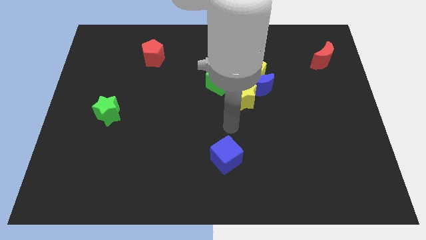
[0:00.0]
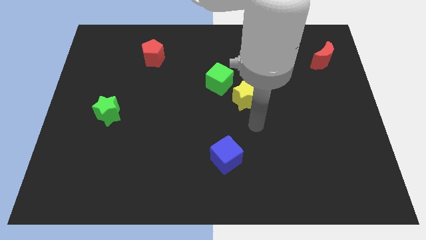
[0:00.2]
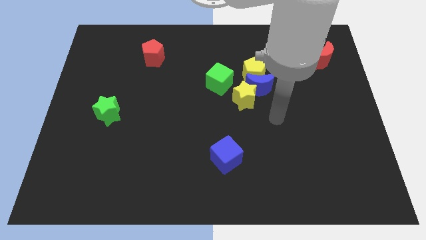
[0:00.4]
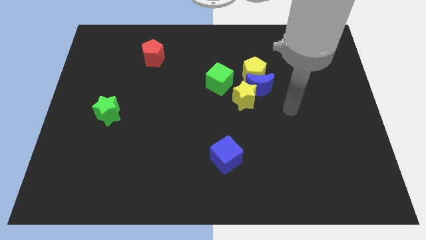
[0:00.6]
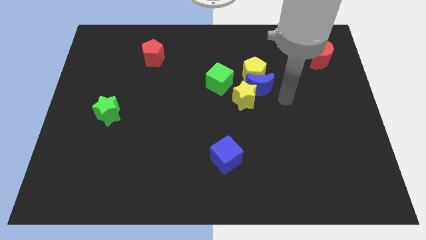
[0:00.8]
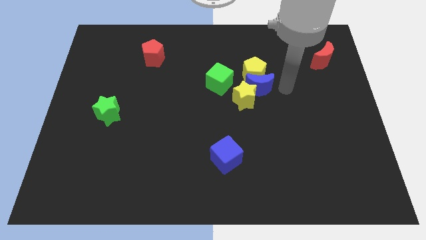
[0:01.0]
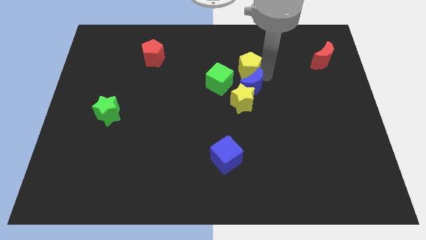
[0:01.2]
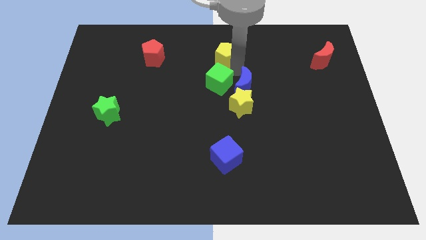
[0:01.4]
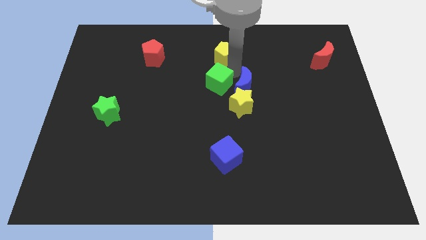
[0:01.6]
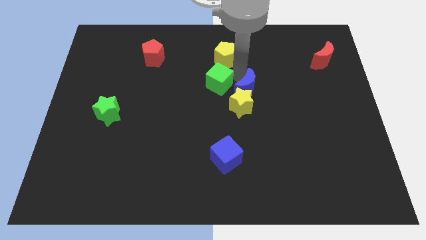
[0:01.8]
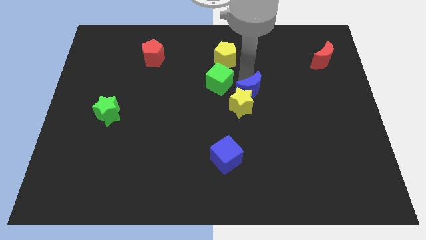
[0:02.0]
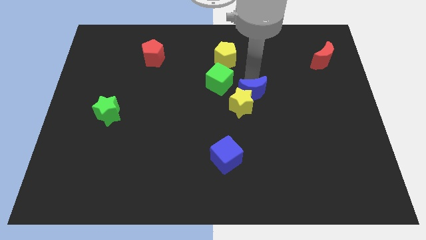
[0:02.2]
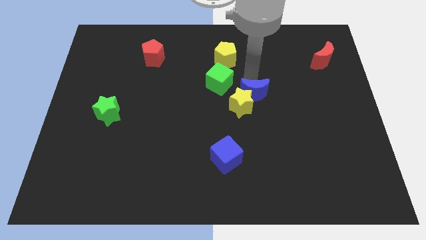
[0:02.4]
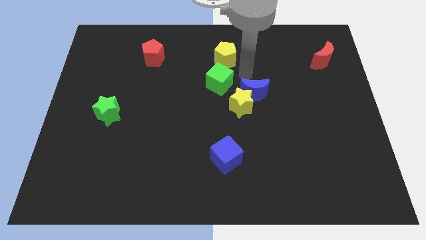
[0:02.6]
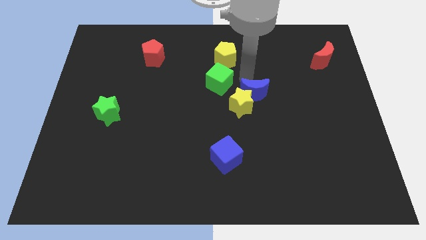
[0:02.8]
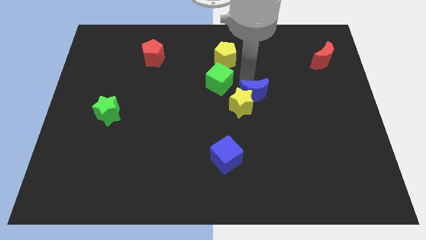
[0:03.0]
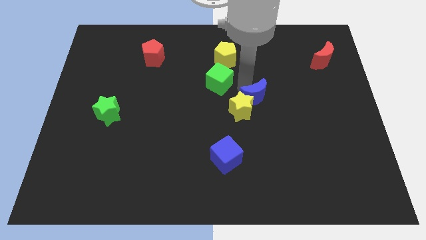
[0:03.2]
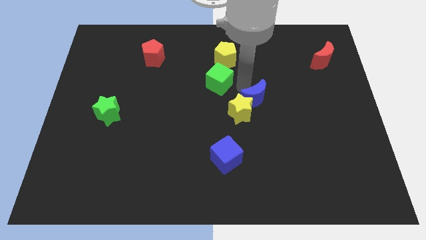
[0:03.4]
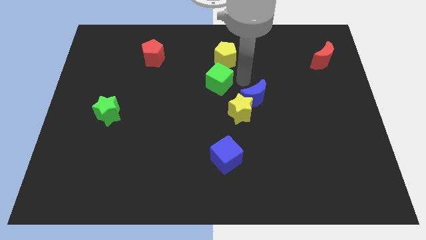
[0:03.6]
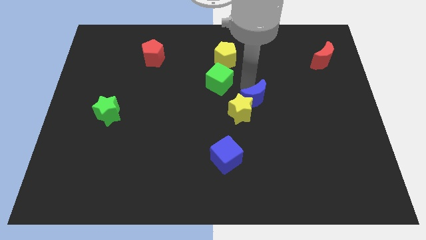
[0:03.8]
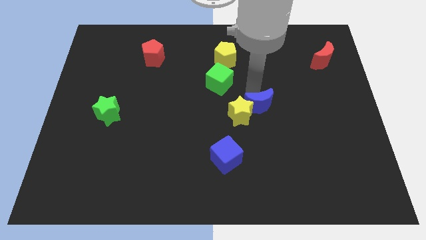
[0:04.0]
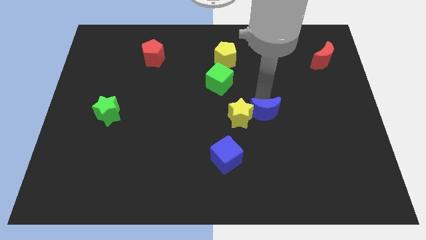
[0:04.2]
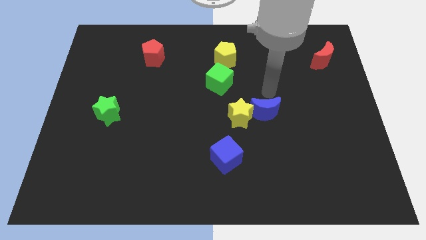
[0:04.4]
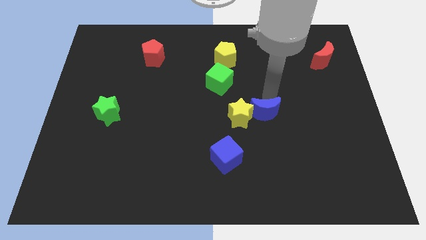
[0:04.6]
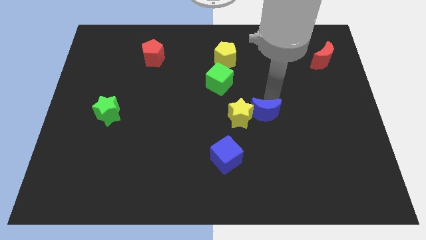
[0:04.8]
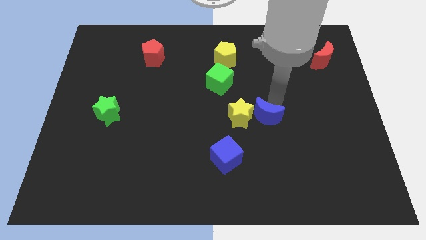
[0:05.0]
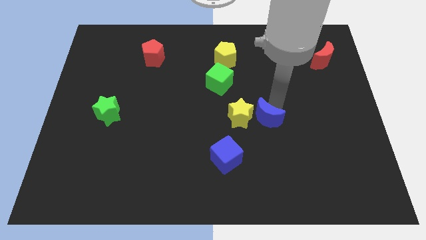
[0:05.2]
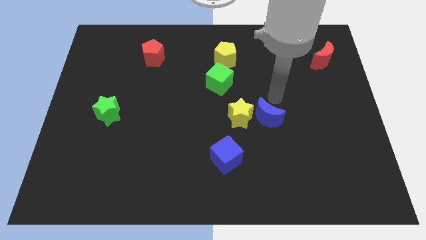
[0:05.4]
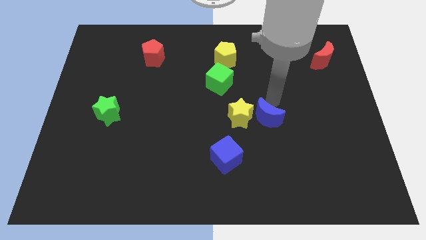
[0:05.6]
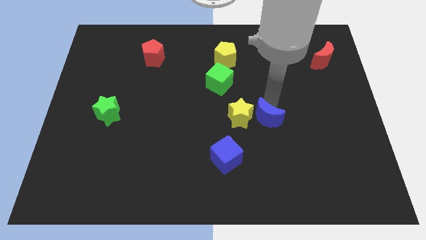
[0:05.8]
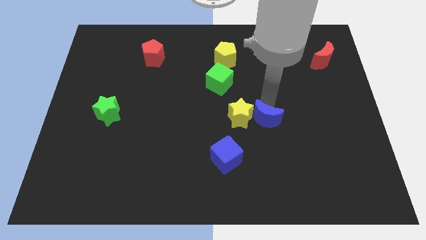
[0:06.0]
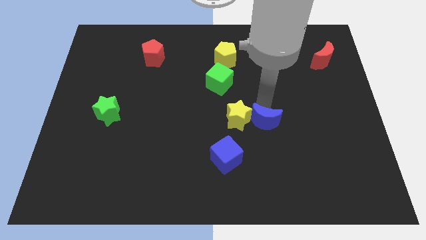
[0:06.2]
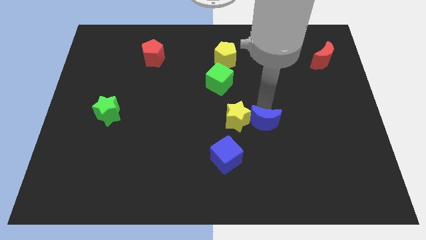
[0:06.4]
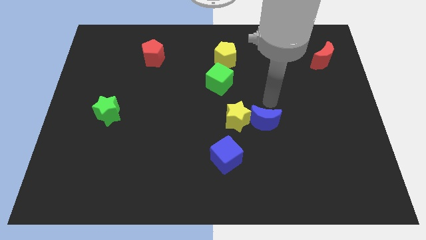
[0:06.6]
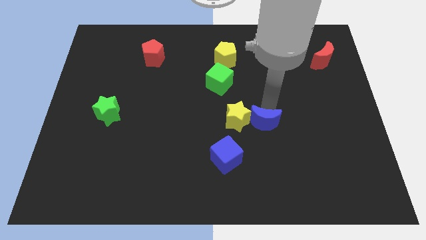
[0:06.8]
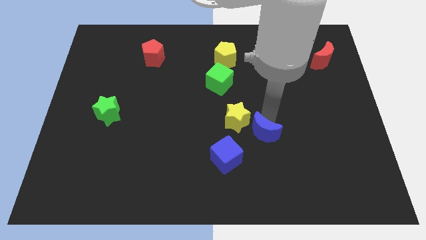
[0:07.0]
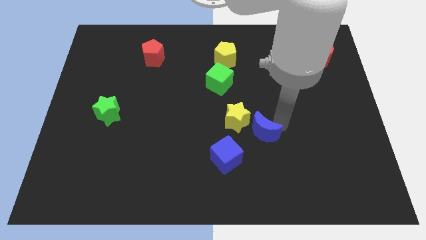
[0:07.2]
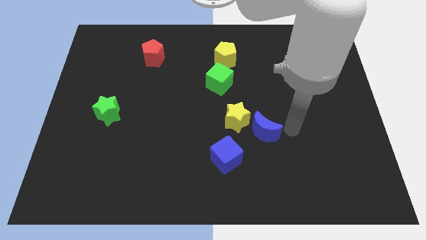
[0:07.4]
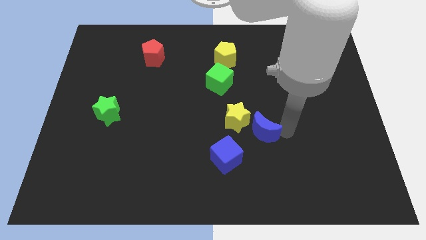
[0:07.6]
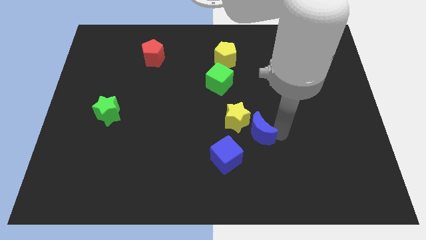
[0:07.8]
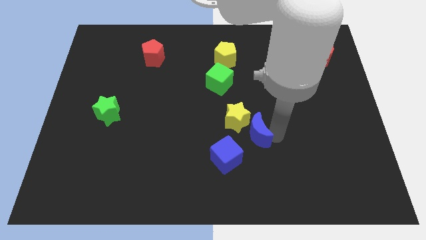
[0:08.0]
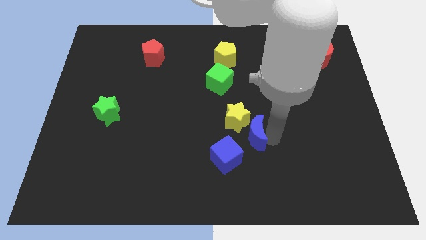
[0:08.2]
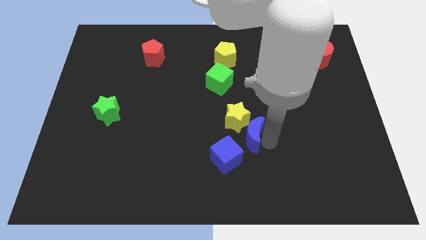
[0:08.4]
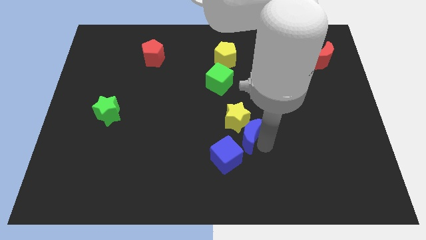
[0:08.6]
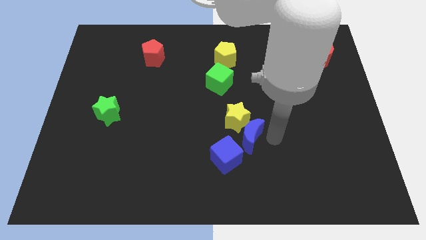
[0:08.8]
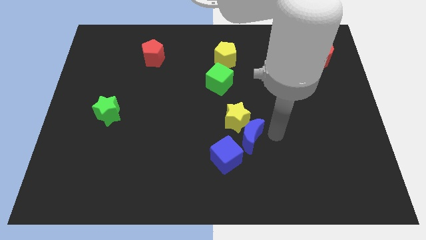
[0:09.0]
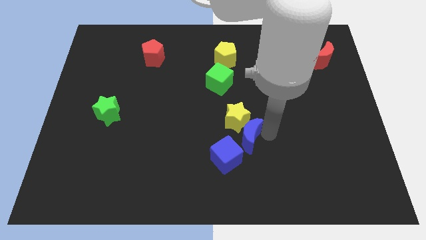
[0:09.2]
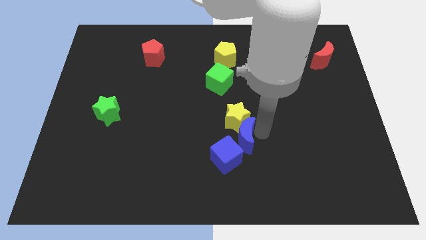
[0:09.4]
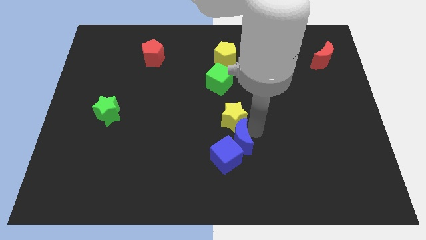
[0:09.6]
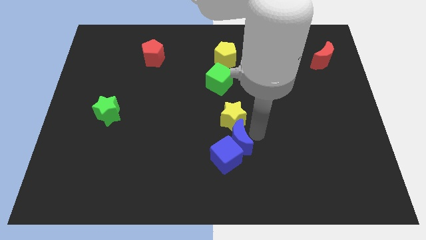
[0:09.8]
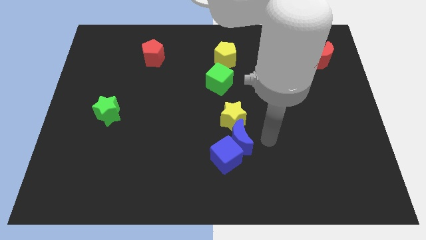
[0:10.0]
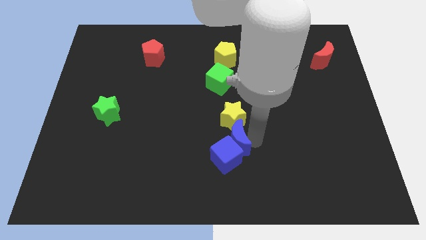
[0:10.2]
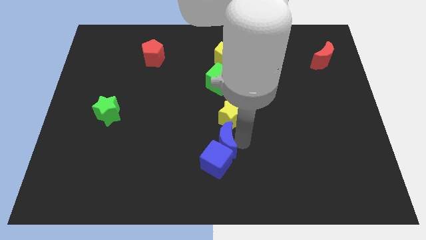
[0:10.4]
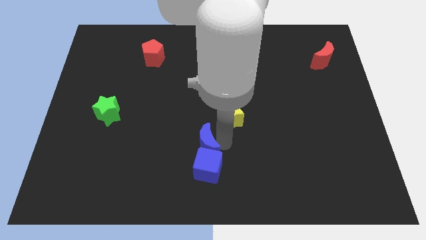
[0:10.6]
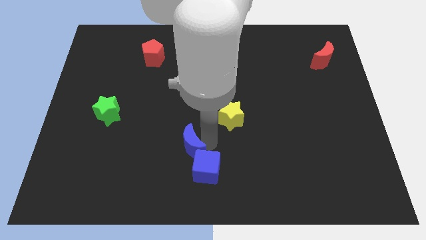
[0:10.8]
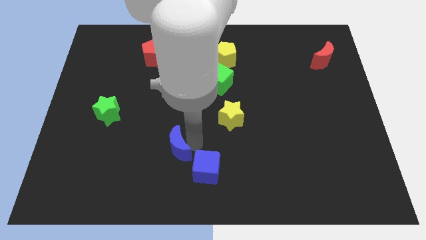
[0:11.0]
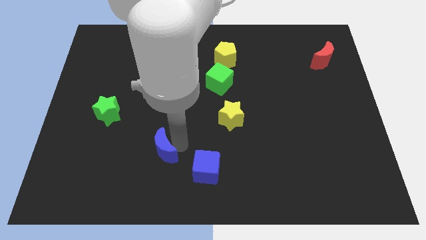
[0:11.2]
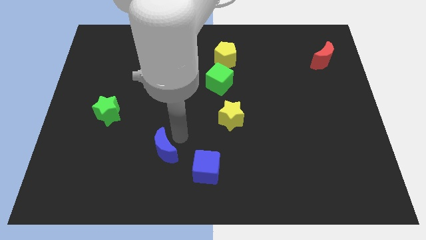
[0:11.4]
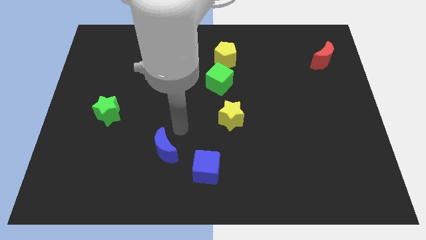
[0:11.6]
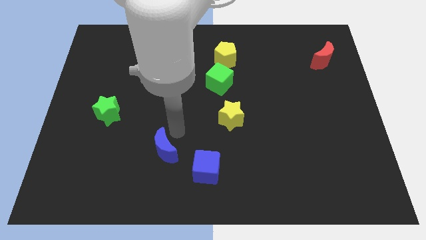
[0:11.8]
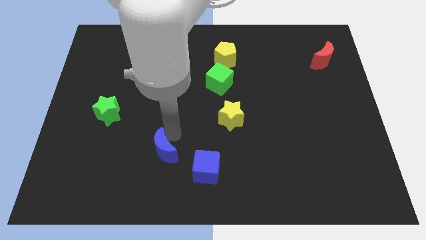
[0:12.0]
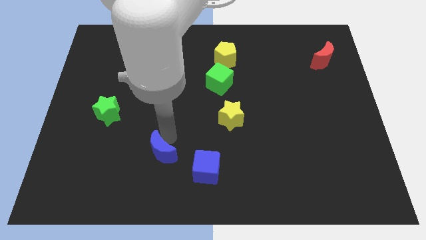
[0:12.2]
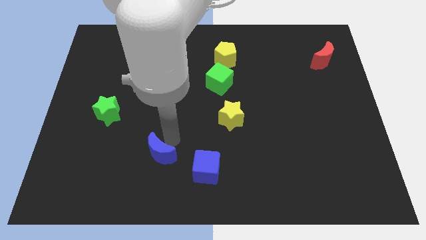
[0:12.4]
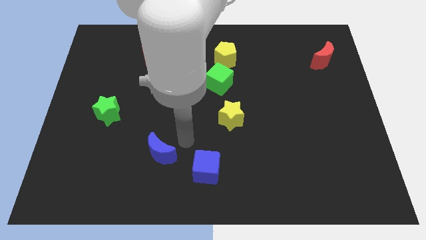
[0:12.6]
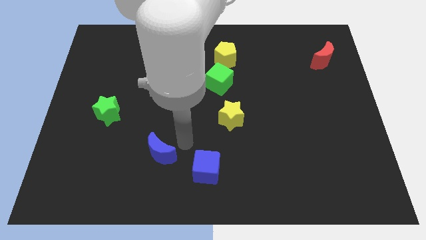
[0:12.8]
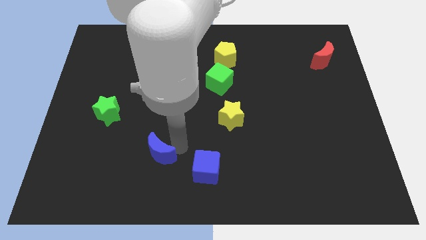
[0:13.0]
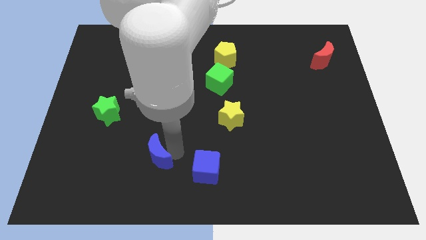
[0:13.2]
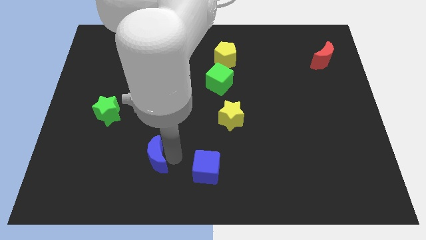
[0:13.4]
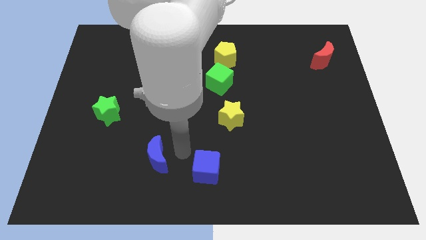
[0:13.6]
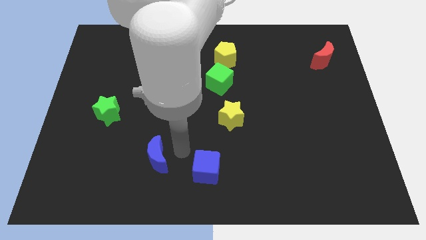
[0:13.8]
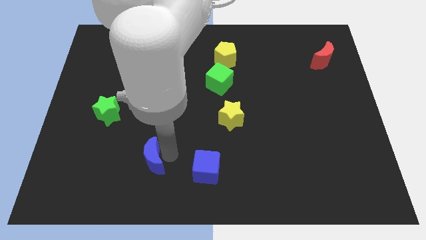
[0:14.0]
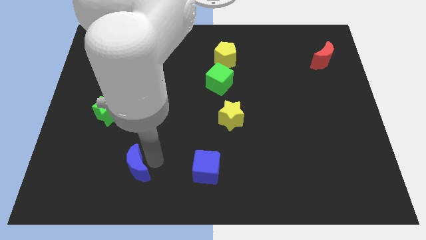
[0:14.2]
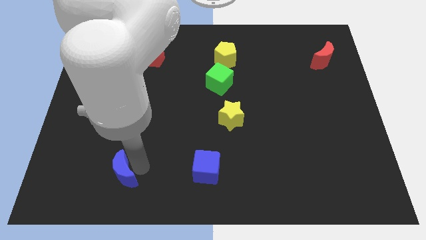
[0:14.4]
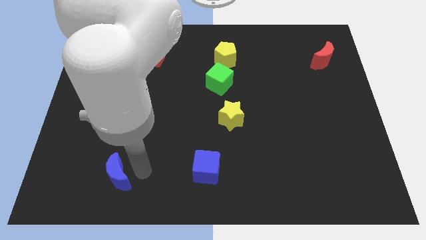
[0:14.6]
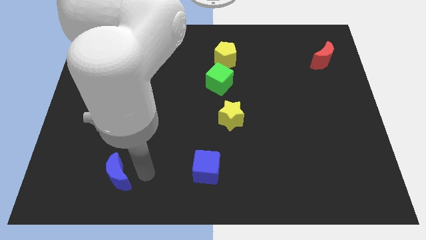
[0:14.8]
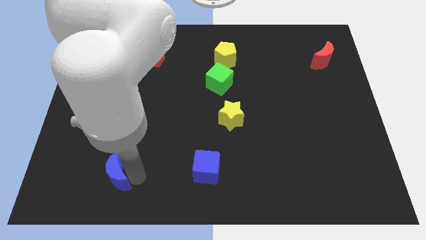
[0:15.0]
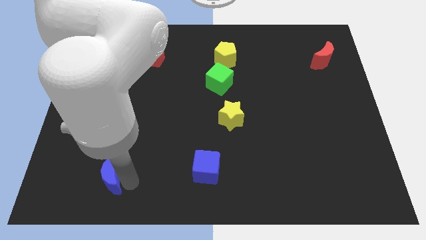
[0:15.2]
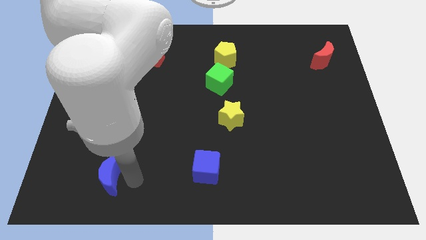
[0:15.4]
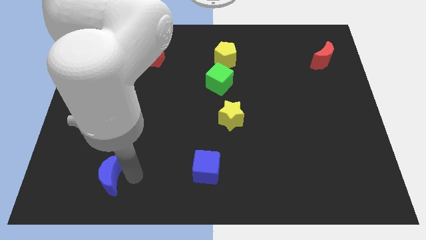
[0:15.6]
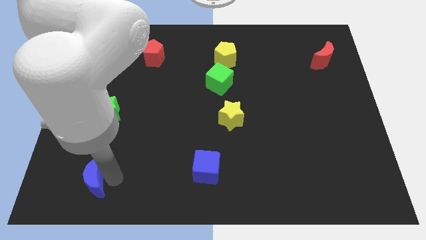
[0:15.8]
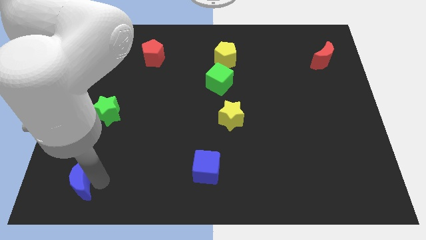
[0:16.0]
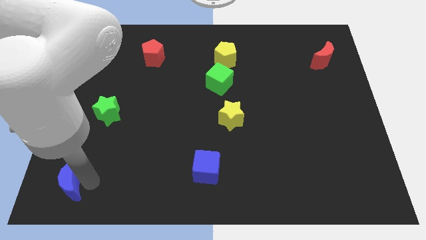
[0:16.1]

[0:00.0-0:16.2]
push the blue moon to the lower left corner
